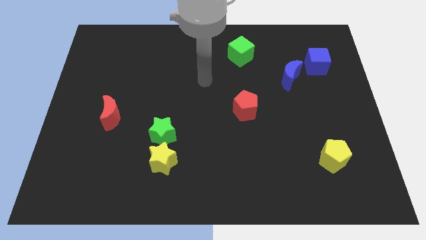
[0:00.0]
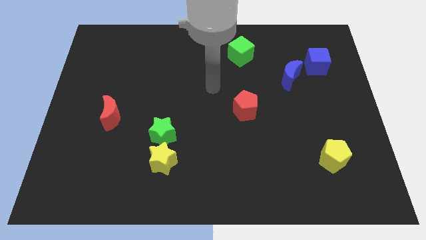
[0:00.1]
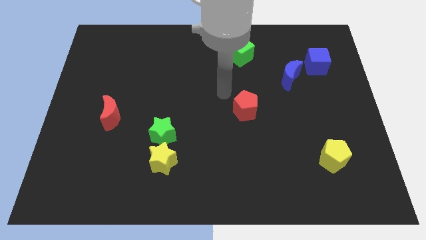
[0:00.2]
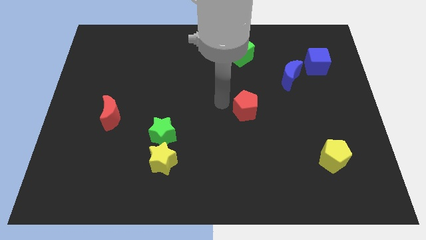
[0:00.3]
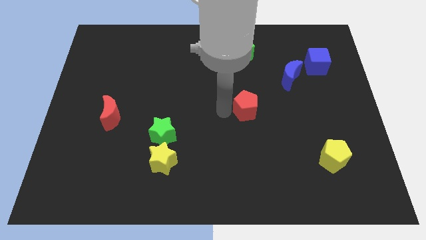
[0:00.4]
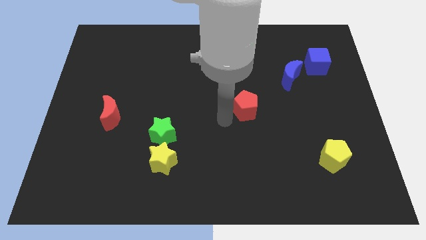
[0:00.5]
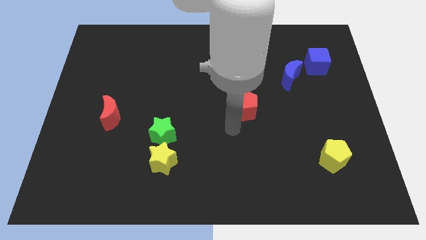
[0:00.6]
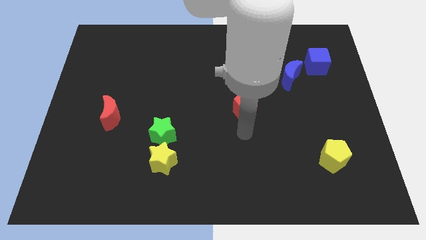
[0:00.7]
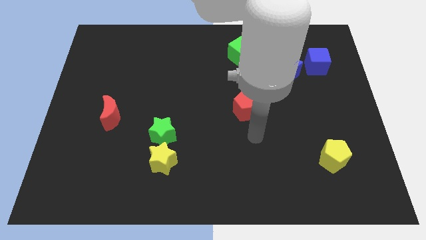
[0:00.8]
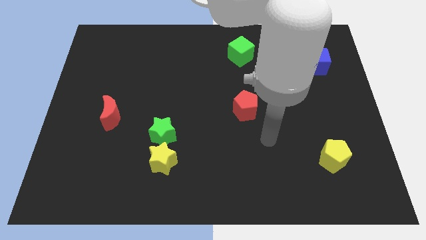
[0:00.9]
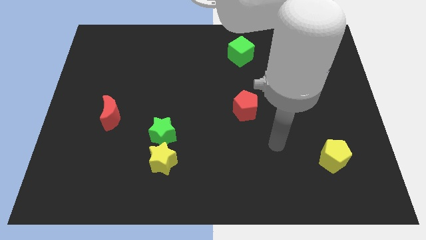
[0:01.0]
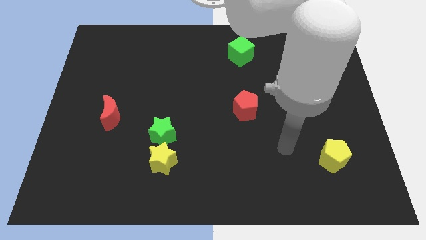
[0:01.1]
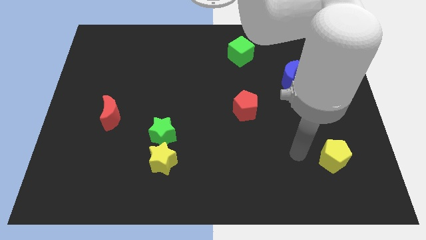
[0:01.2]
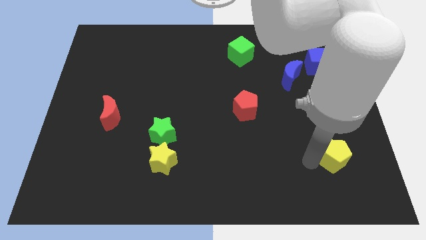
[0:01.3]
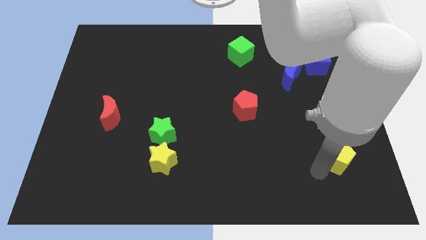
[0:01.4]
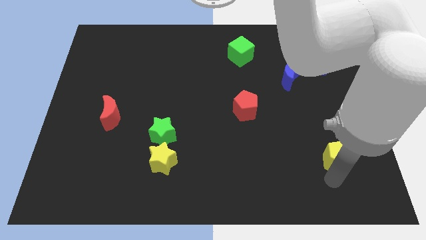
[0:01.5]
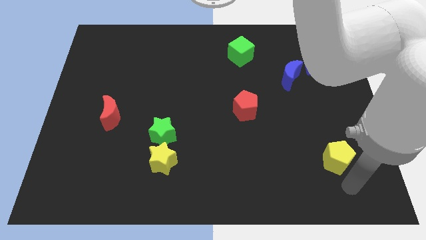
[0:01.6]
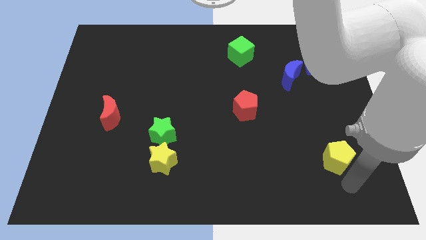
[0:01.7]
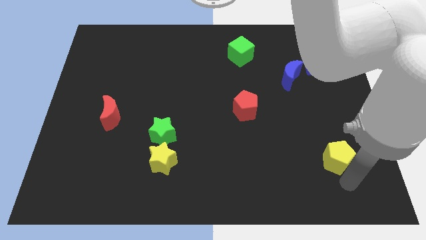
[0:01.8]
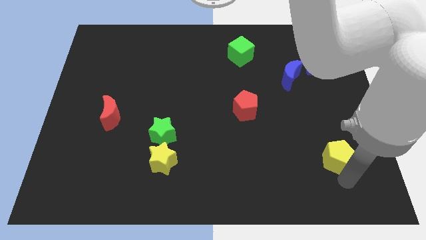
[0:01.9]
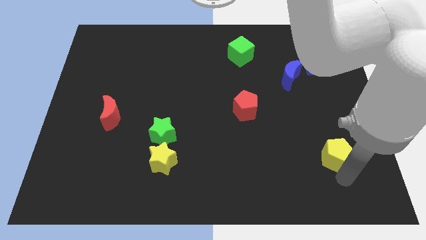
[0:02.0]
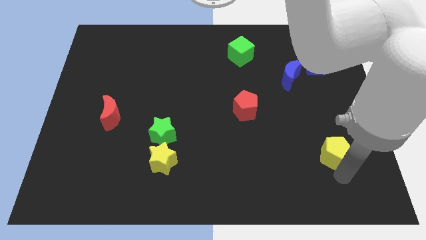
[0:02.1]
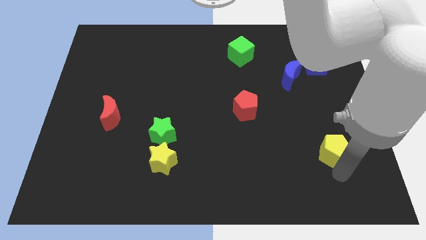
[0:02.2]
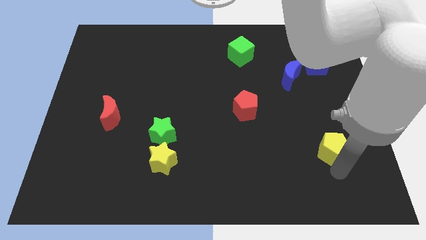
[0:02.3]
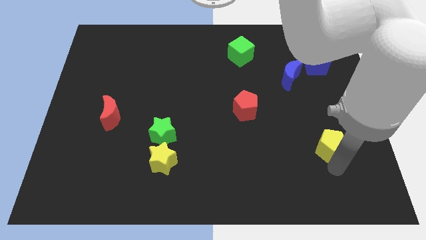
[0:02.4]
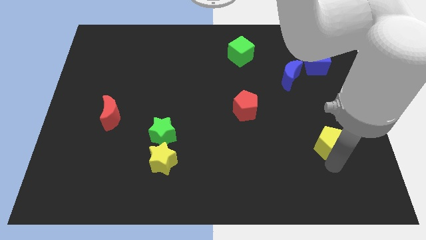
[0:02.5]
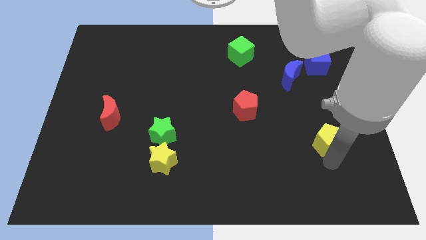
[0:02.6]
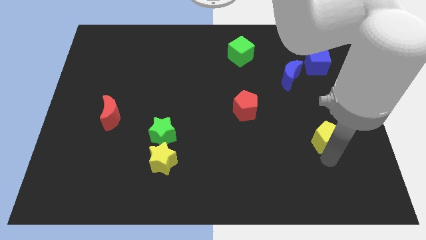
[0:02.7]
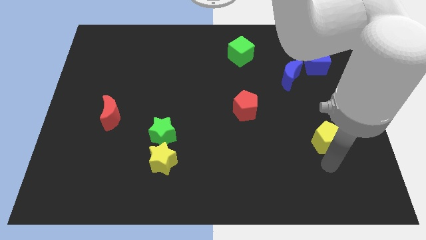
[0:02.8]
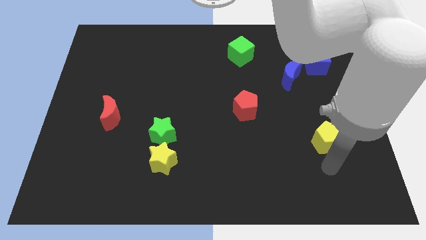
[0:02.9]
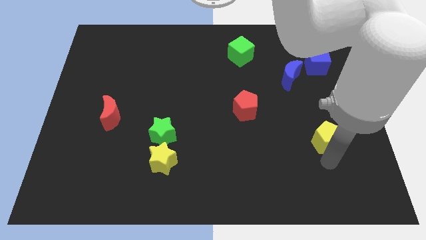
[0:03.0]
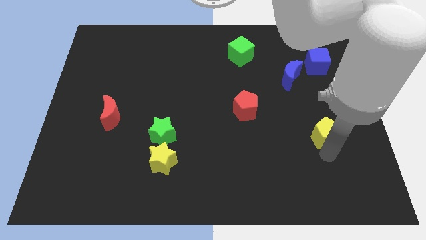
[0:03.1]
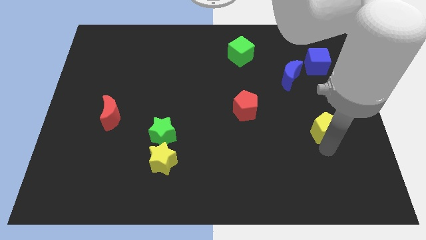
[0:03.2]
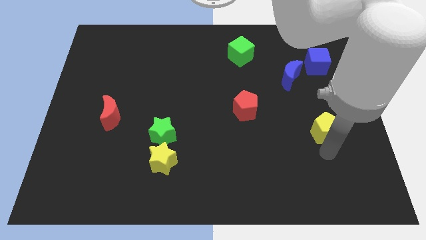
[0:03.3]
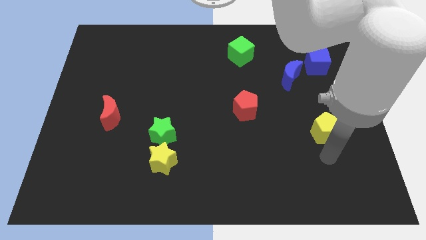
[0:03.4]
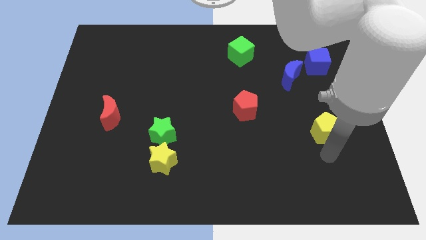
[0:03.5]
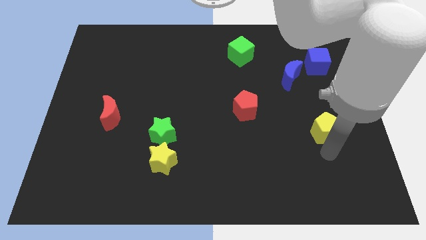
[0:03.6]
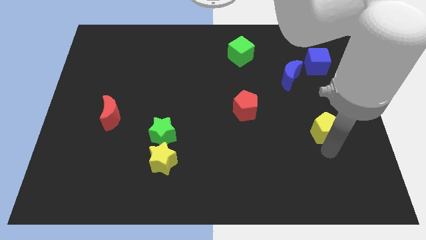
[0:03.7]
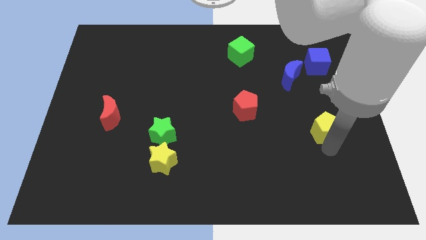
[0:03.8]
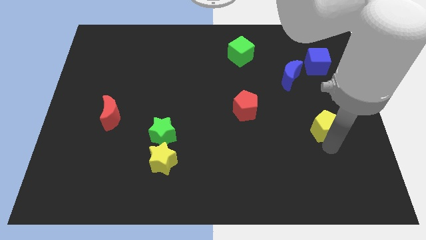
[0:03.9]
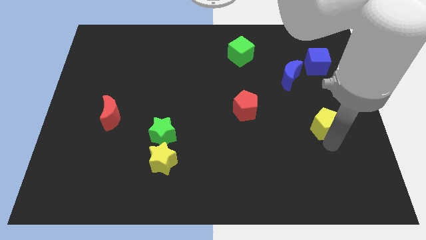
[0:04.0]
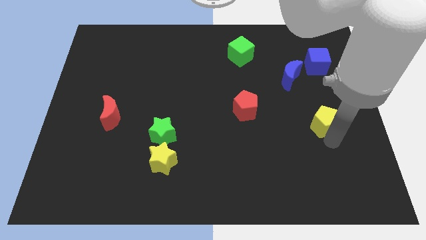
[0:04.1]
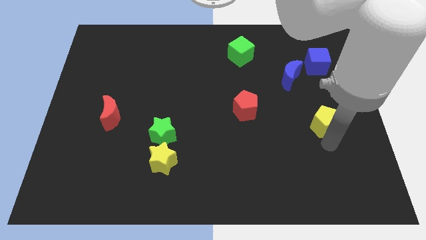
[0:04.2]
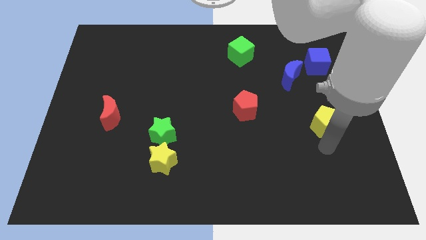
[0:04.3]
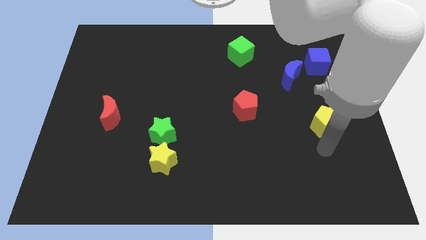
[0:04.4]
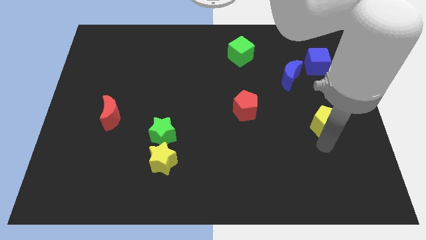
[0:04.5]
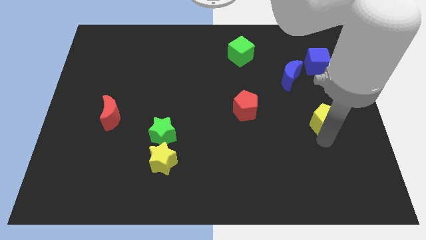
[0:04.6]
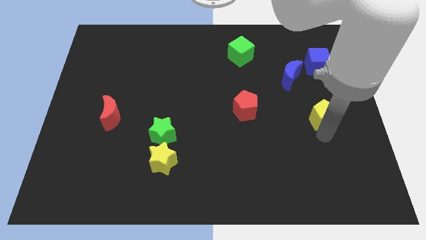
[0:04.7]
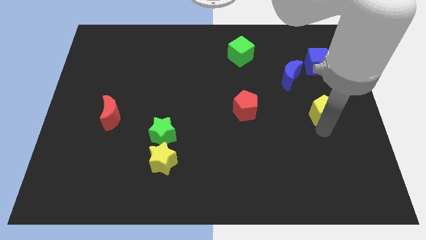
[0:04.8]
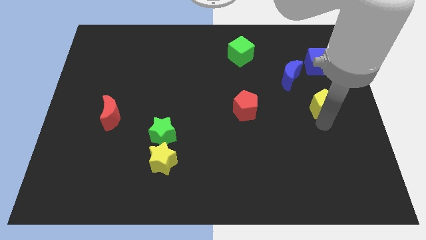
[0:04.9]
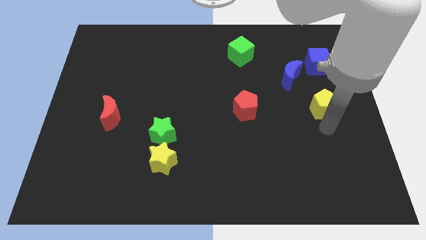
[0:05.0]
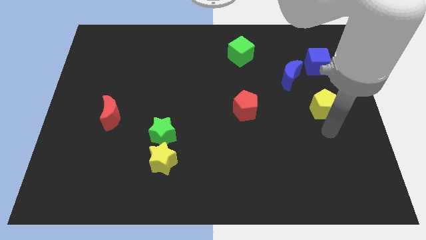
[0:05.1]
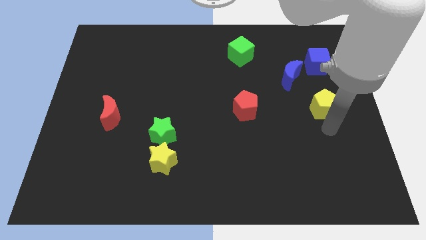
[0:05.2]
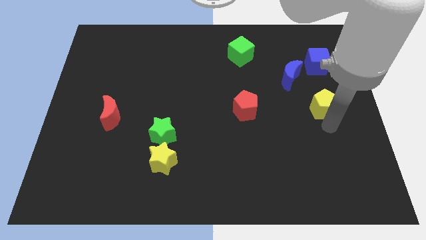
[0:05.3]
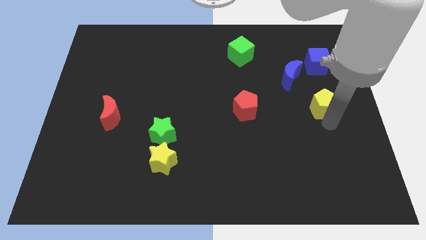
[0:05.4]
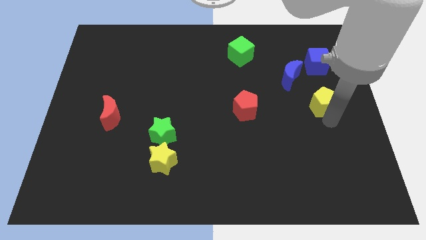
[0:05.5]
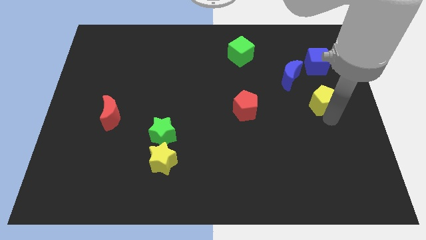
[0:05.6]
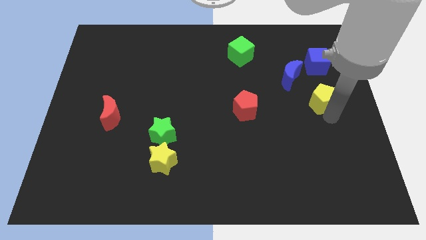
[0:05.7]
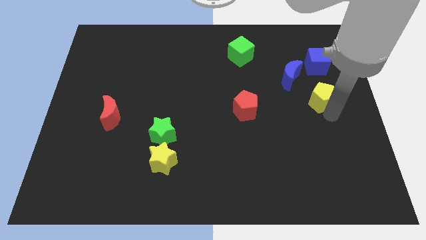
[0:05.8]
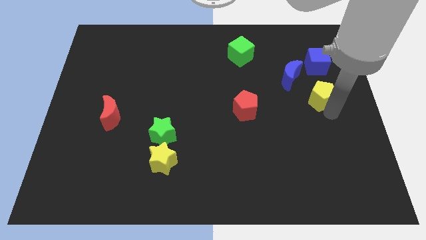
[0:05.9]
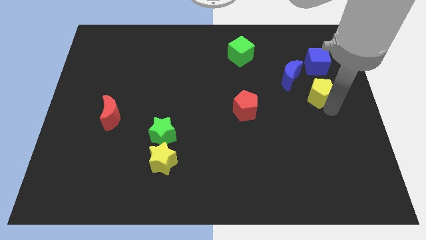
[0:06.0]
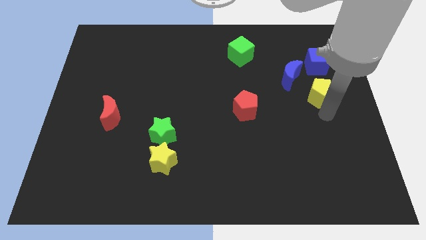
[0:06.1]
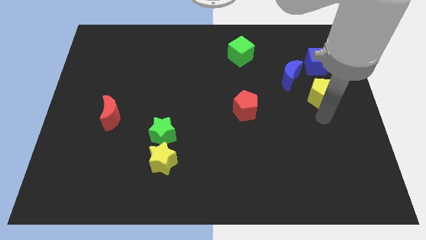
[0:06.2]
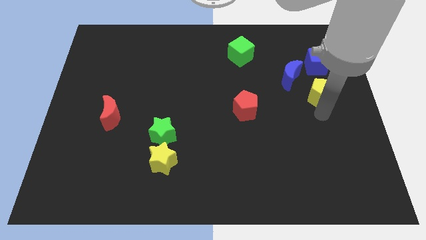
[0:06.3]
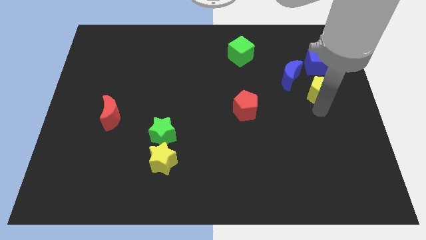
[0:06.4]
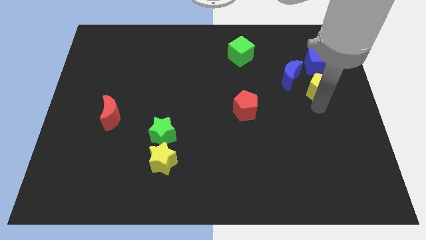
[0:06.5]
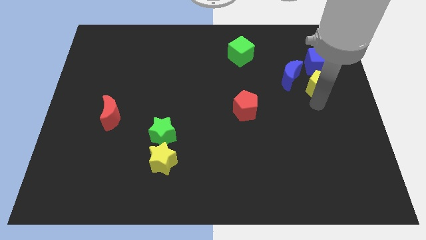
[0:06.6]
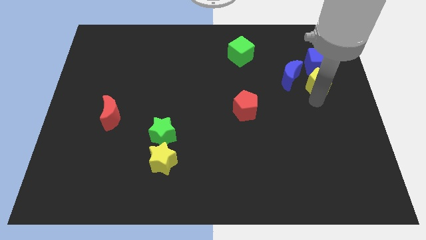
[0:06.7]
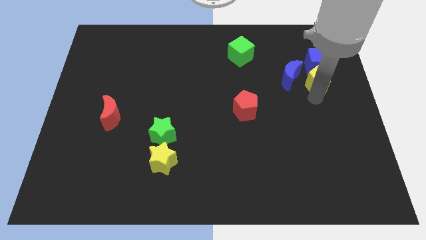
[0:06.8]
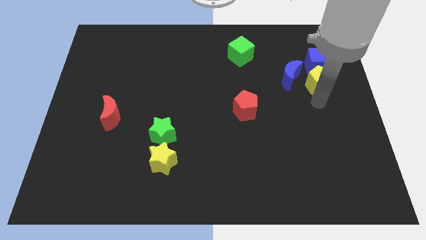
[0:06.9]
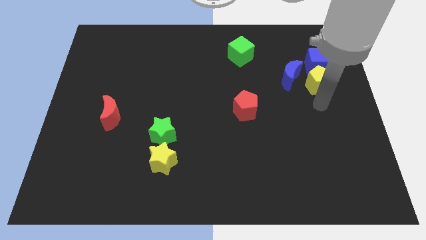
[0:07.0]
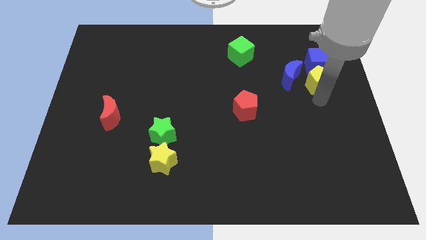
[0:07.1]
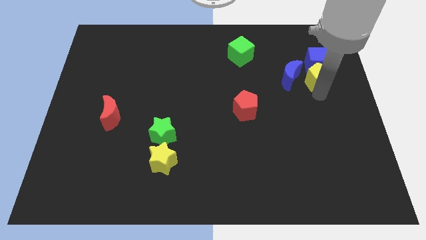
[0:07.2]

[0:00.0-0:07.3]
move the yellow pentagon next to the blue cube
